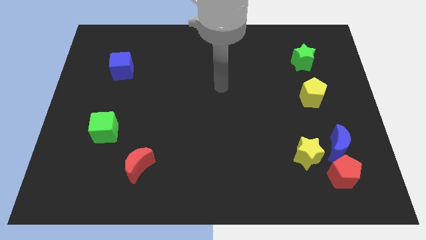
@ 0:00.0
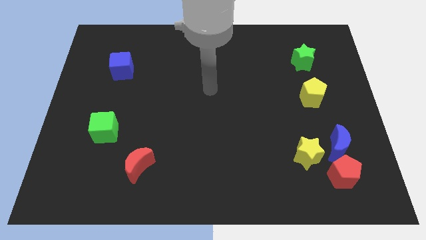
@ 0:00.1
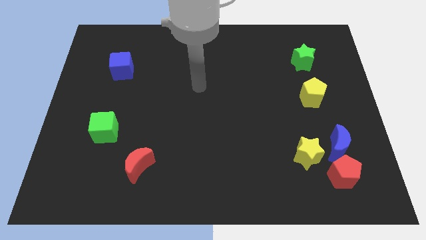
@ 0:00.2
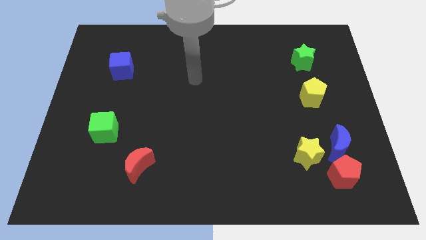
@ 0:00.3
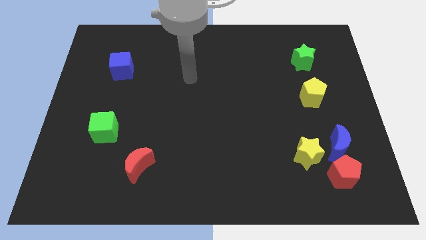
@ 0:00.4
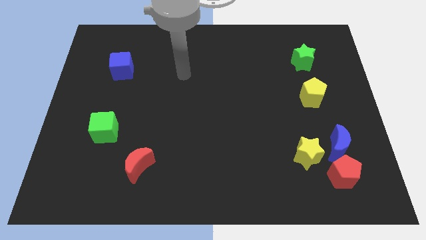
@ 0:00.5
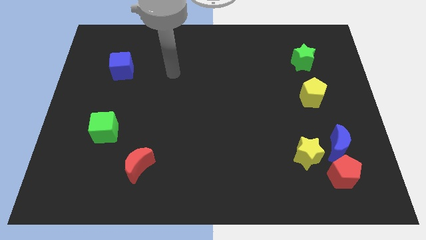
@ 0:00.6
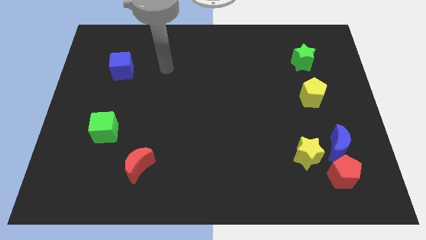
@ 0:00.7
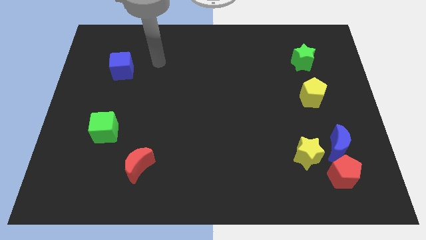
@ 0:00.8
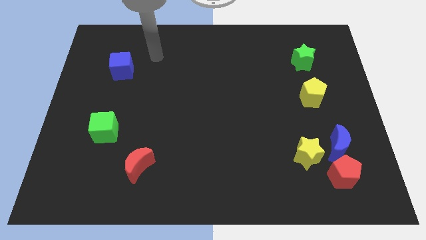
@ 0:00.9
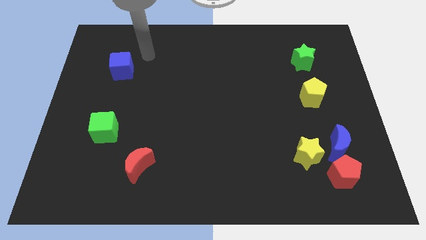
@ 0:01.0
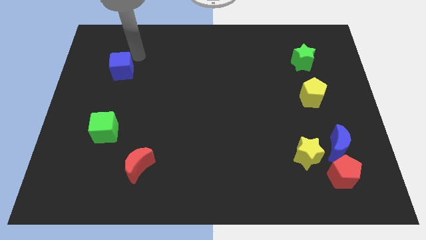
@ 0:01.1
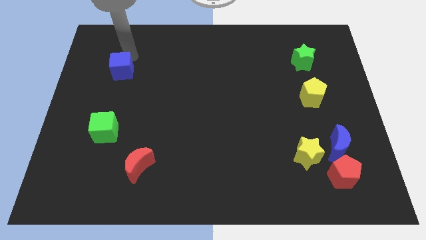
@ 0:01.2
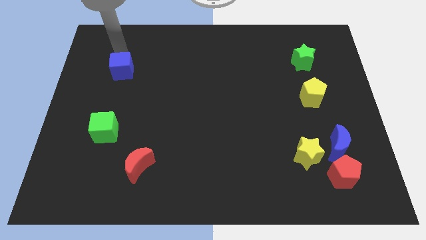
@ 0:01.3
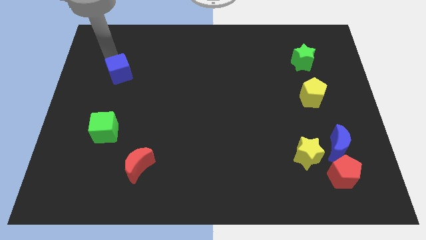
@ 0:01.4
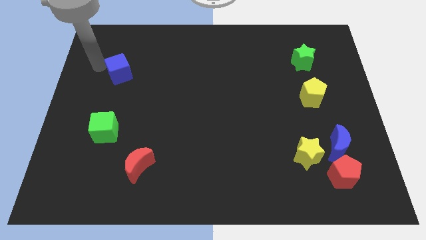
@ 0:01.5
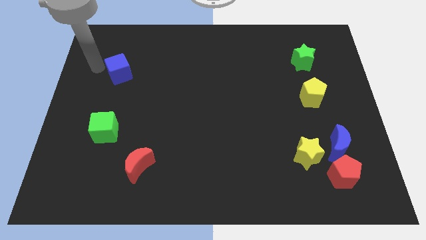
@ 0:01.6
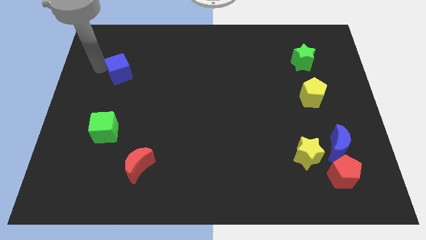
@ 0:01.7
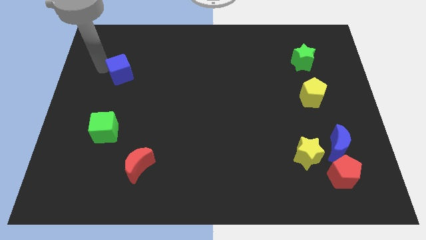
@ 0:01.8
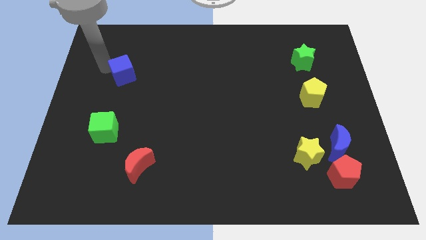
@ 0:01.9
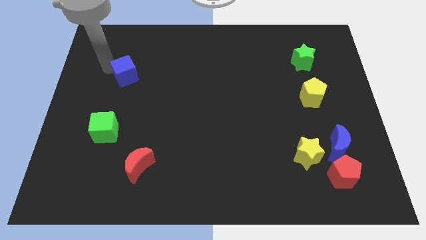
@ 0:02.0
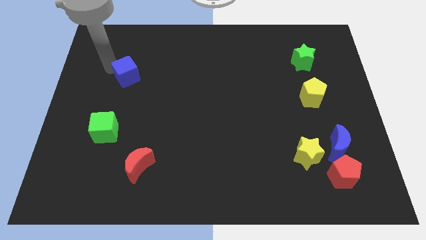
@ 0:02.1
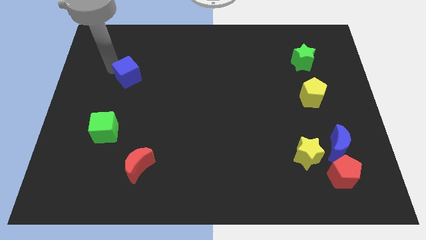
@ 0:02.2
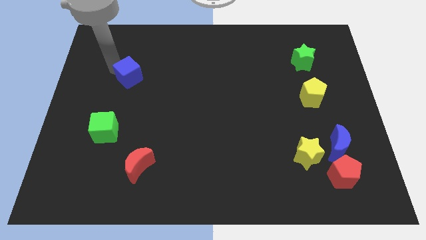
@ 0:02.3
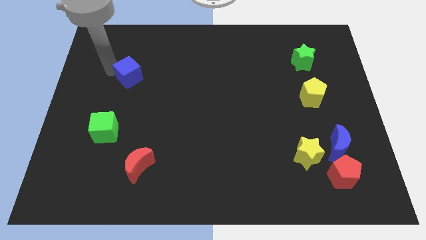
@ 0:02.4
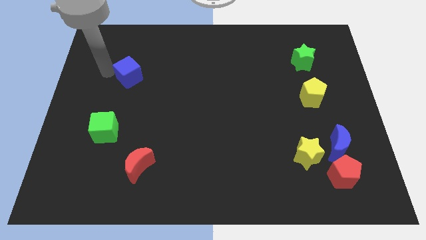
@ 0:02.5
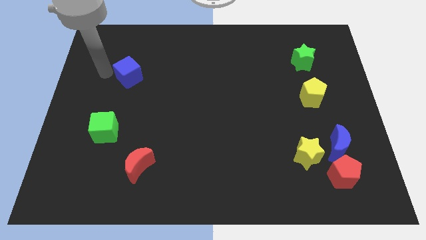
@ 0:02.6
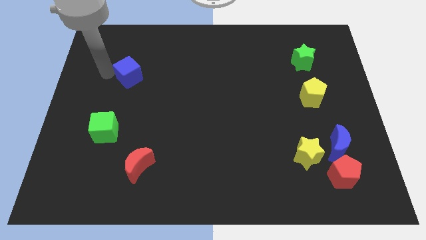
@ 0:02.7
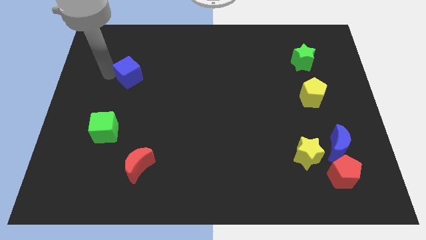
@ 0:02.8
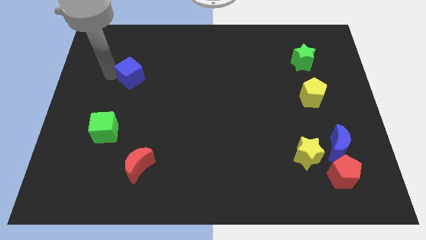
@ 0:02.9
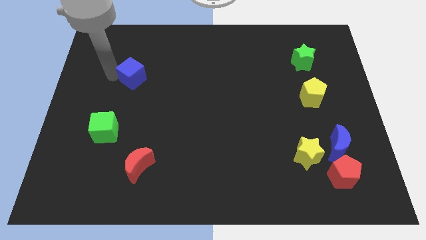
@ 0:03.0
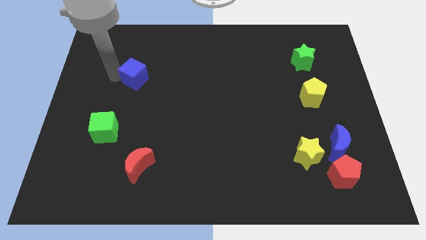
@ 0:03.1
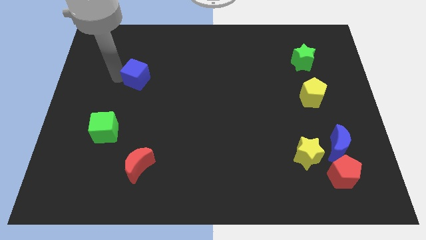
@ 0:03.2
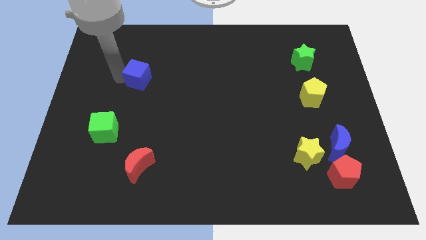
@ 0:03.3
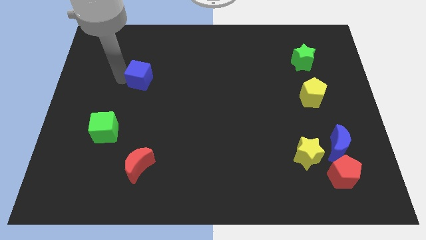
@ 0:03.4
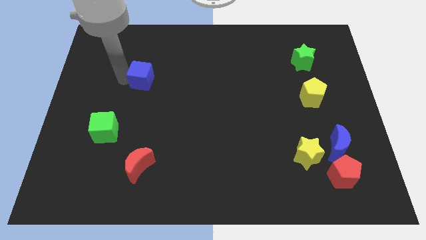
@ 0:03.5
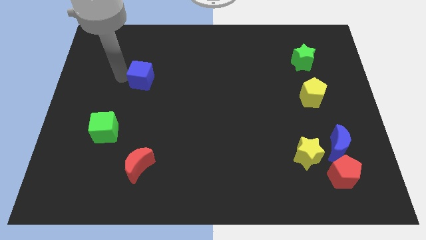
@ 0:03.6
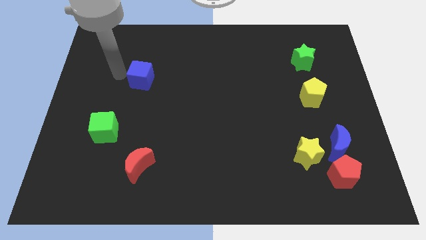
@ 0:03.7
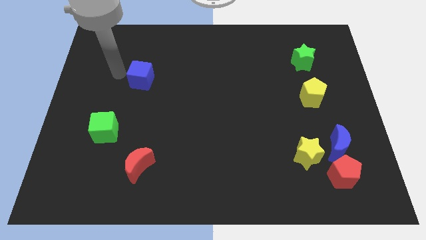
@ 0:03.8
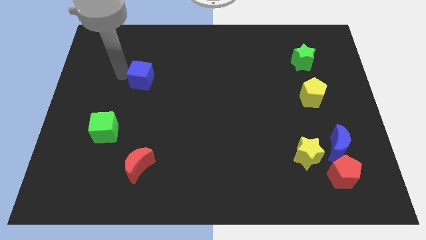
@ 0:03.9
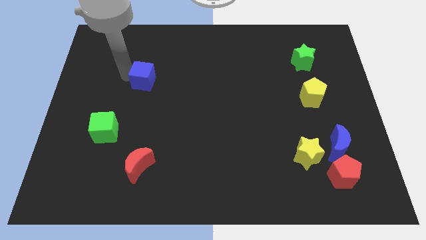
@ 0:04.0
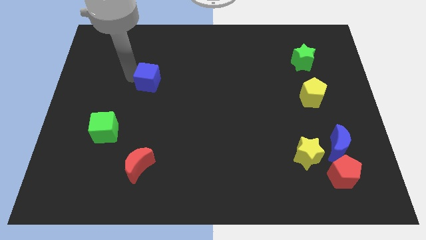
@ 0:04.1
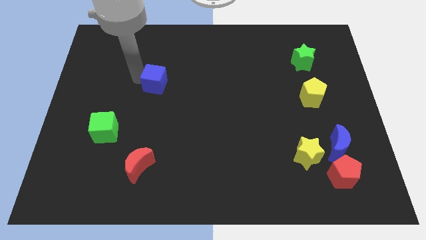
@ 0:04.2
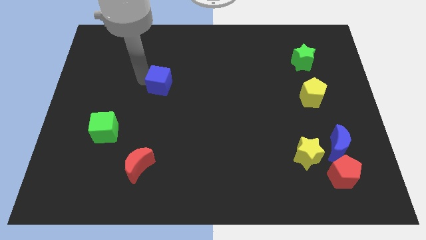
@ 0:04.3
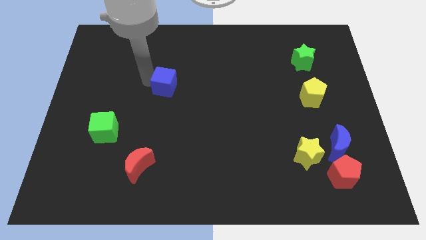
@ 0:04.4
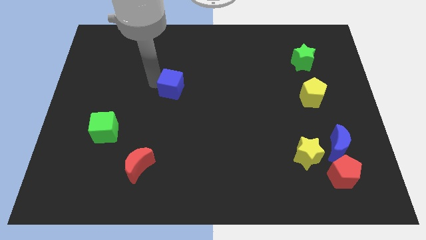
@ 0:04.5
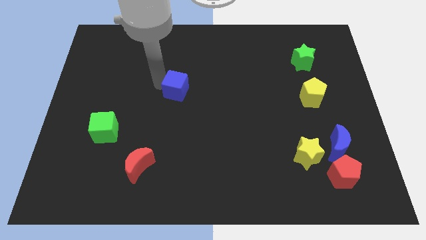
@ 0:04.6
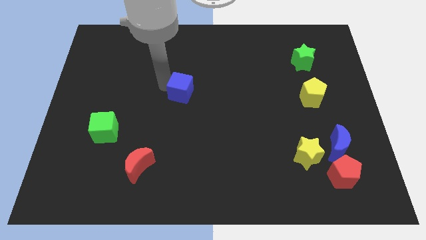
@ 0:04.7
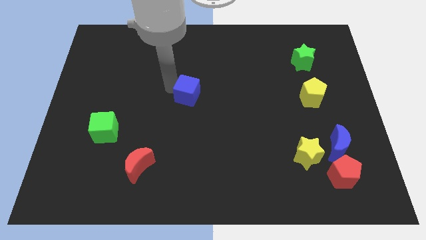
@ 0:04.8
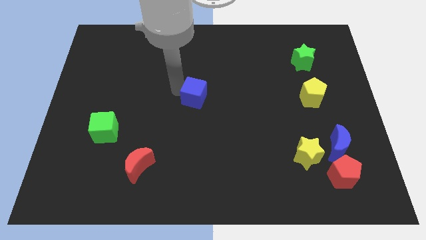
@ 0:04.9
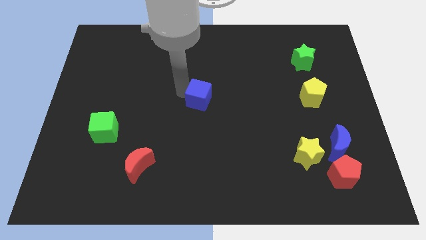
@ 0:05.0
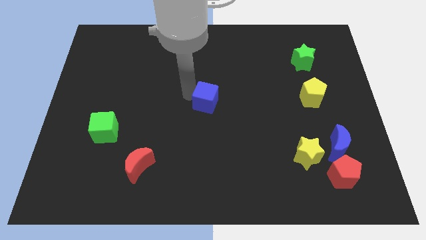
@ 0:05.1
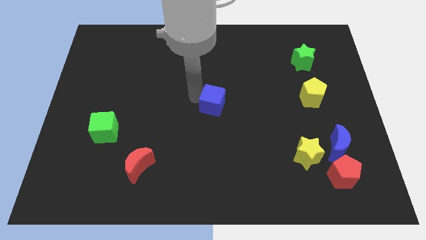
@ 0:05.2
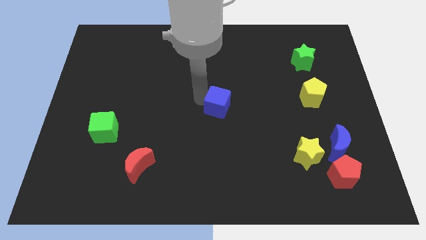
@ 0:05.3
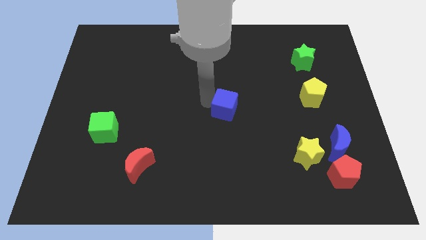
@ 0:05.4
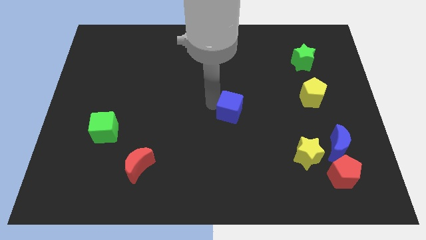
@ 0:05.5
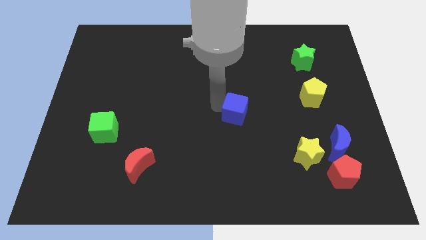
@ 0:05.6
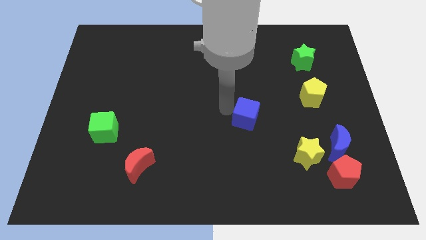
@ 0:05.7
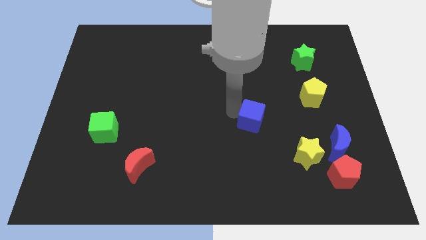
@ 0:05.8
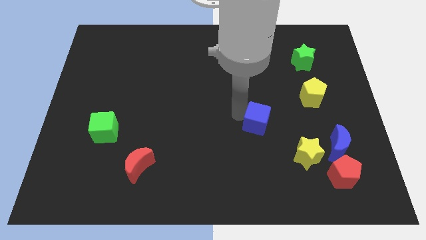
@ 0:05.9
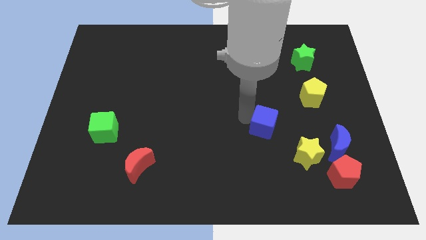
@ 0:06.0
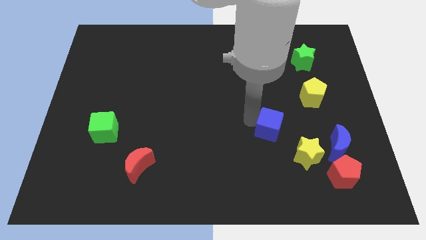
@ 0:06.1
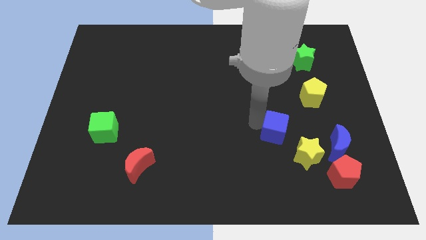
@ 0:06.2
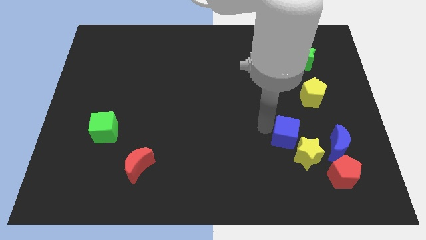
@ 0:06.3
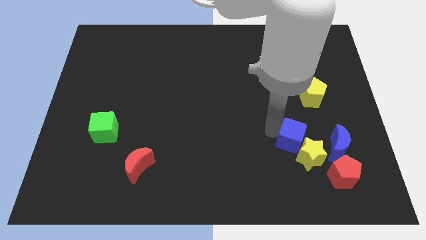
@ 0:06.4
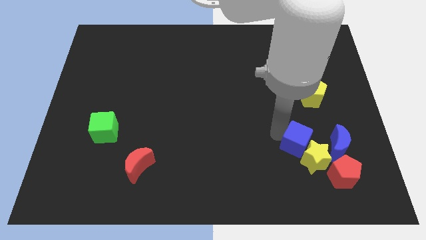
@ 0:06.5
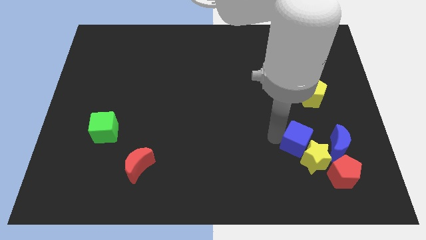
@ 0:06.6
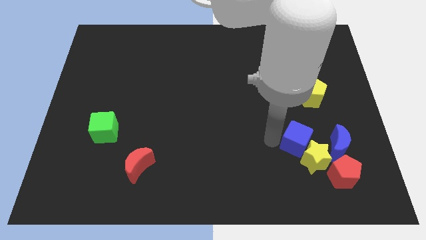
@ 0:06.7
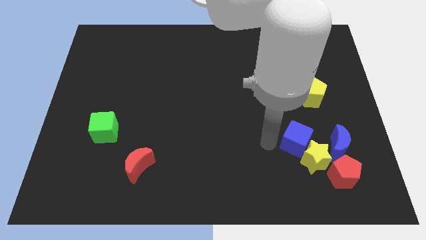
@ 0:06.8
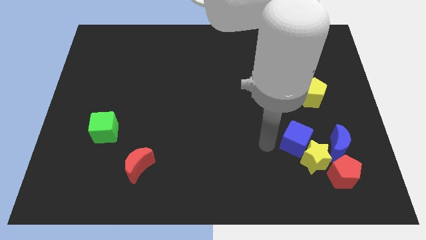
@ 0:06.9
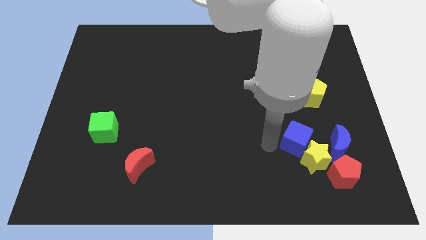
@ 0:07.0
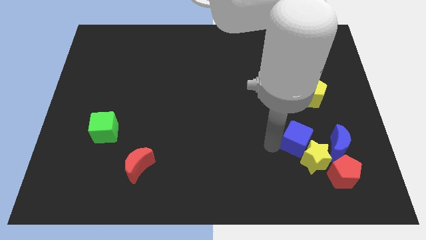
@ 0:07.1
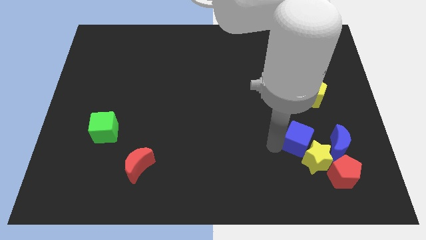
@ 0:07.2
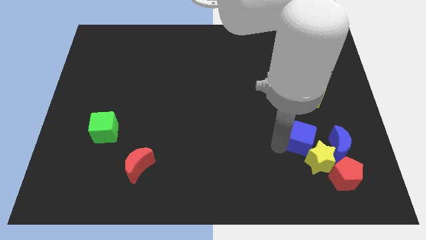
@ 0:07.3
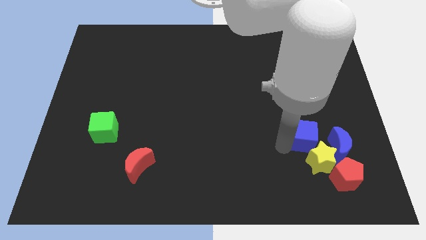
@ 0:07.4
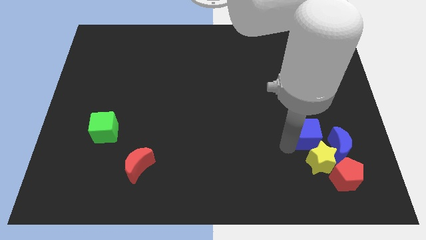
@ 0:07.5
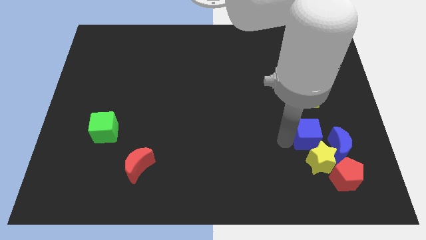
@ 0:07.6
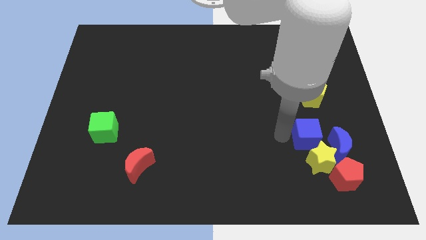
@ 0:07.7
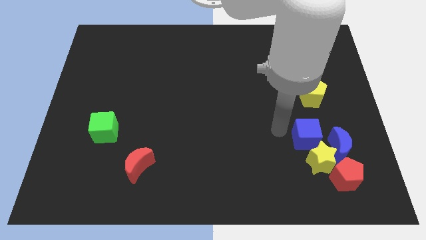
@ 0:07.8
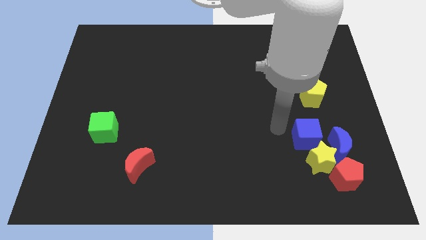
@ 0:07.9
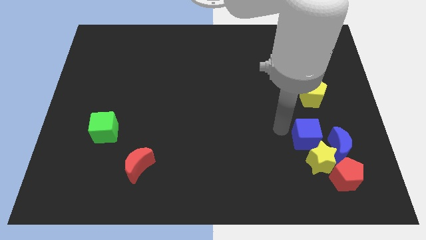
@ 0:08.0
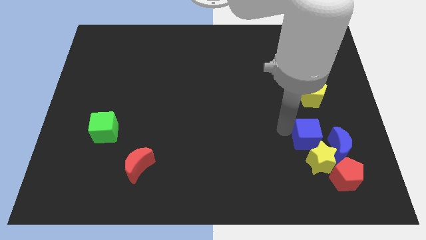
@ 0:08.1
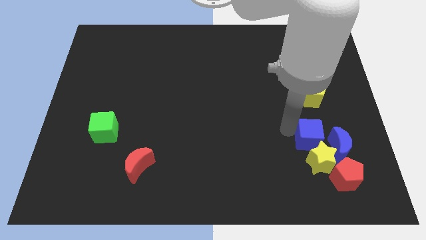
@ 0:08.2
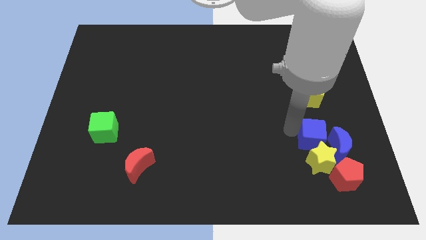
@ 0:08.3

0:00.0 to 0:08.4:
push the blue cube towards the blue moon
